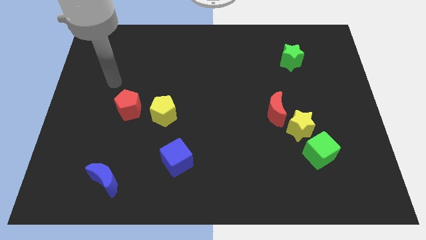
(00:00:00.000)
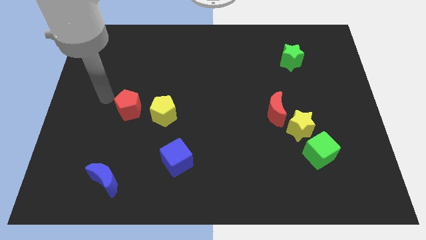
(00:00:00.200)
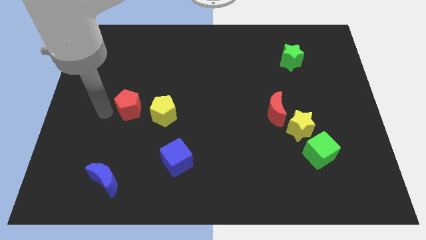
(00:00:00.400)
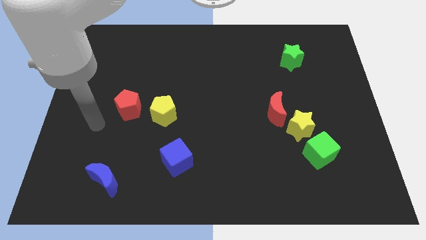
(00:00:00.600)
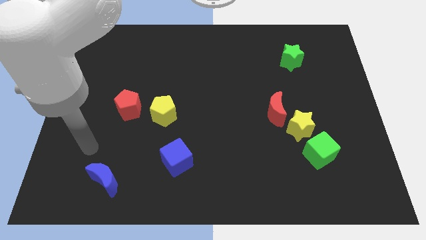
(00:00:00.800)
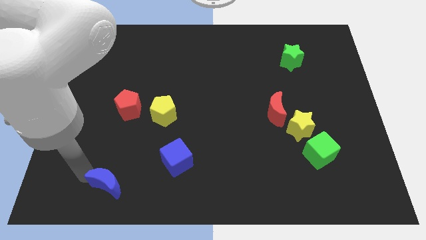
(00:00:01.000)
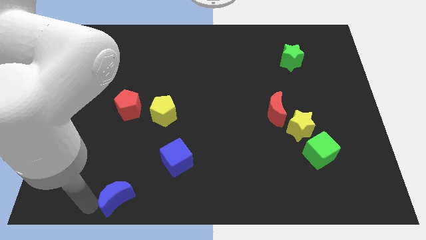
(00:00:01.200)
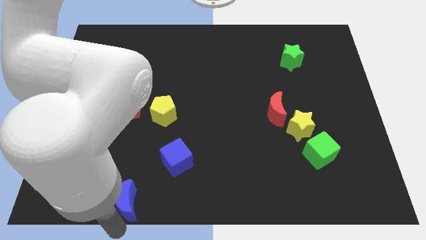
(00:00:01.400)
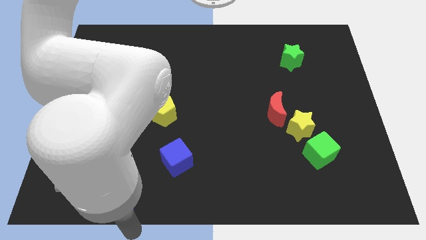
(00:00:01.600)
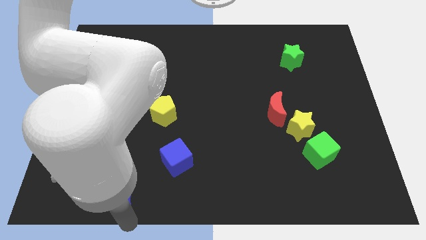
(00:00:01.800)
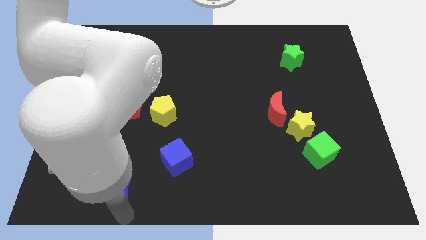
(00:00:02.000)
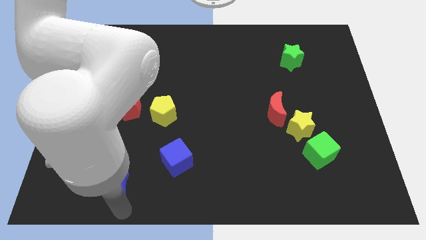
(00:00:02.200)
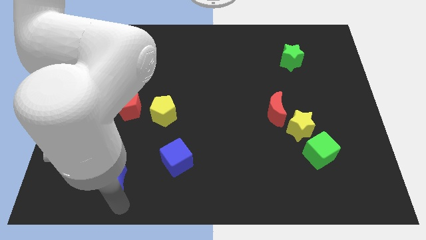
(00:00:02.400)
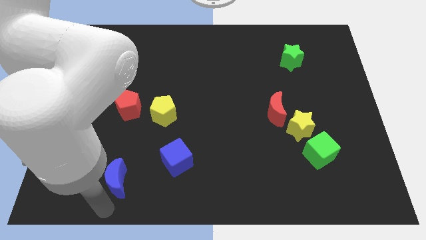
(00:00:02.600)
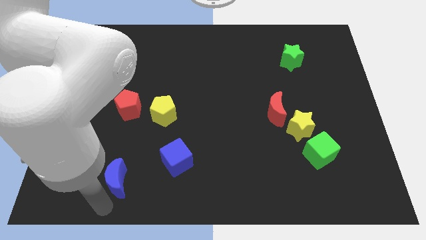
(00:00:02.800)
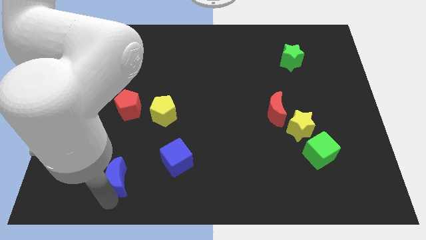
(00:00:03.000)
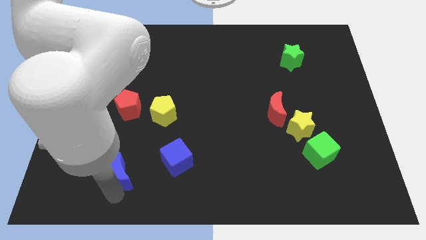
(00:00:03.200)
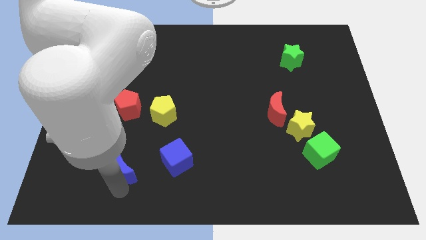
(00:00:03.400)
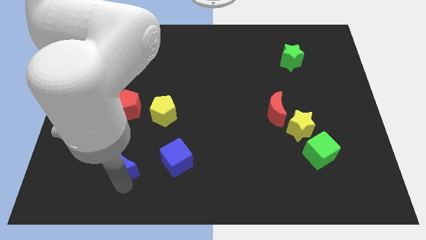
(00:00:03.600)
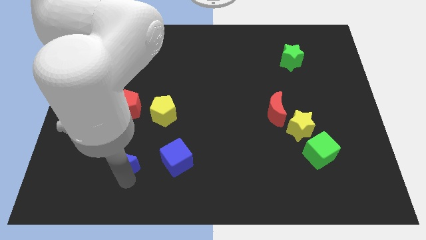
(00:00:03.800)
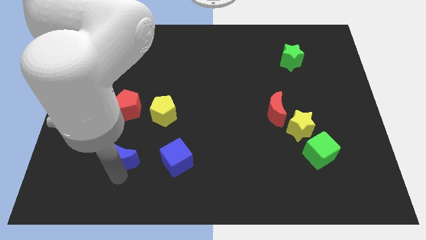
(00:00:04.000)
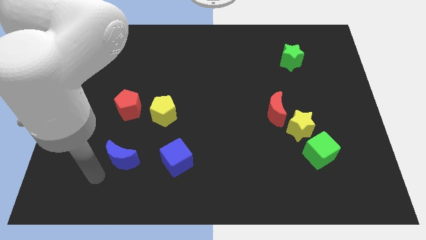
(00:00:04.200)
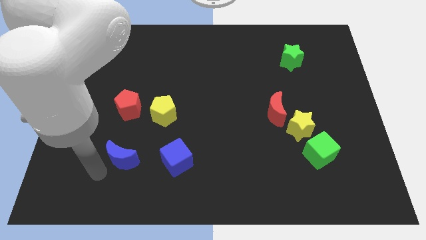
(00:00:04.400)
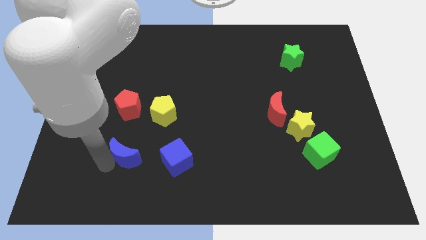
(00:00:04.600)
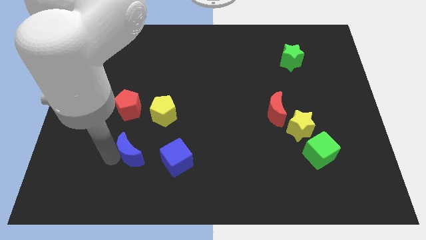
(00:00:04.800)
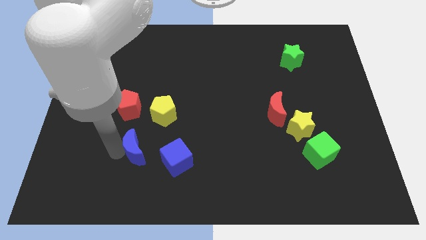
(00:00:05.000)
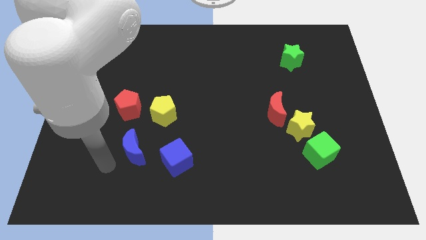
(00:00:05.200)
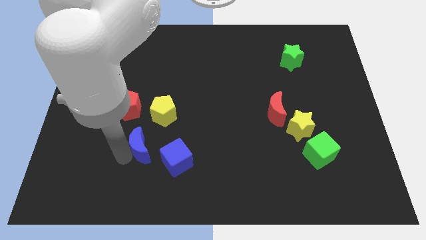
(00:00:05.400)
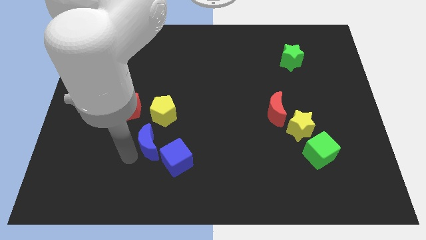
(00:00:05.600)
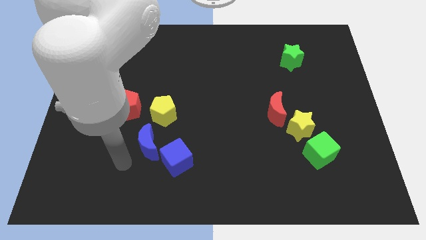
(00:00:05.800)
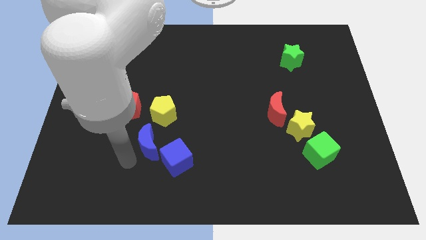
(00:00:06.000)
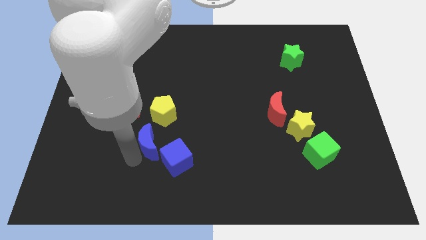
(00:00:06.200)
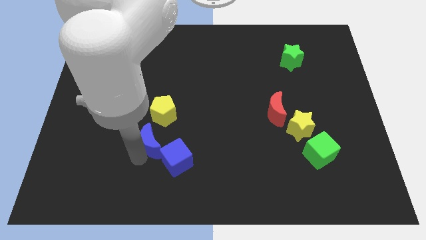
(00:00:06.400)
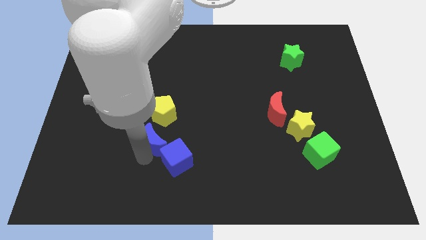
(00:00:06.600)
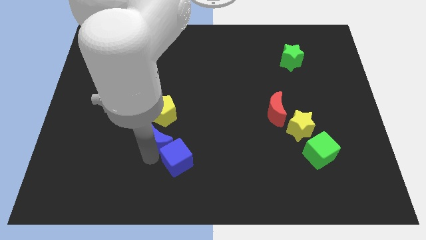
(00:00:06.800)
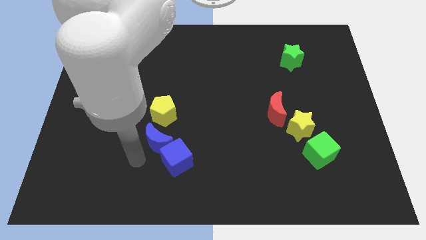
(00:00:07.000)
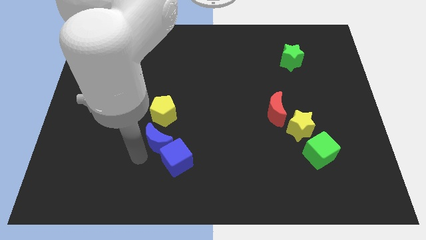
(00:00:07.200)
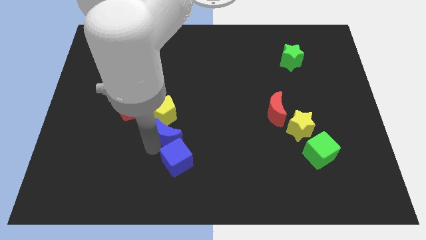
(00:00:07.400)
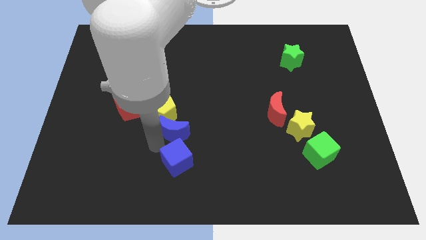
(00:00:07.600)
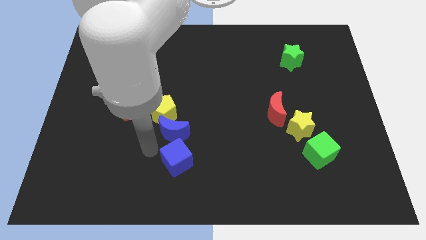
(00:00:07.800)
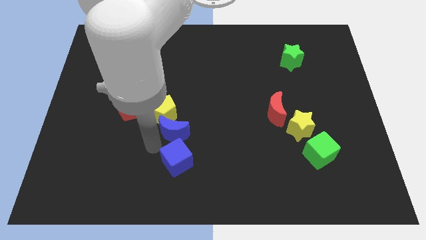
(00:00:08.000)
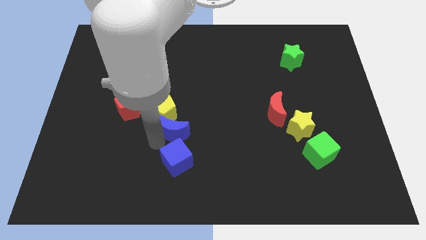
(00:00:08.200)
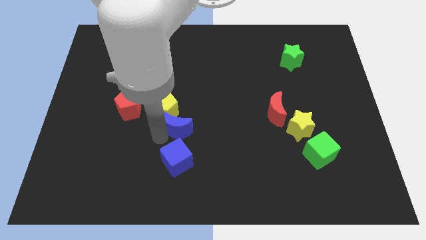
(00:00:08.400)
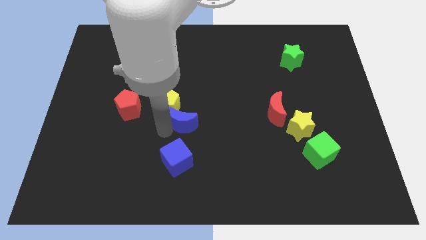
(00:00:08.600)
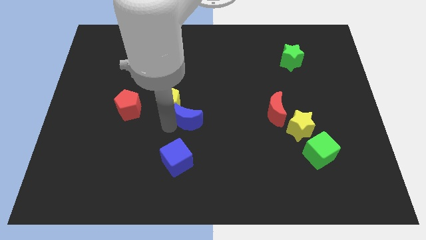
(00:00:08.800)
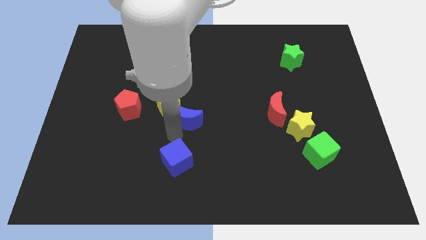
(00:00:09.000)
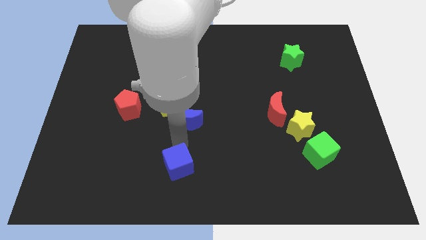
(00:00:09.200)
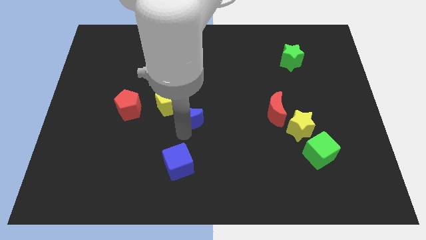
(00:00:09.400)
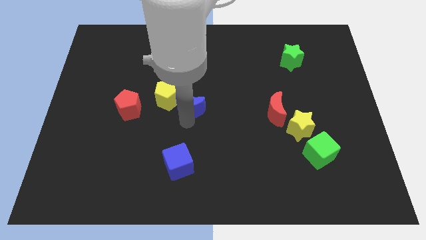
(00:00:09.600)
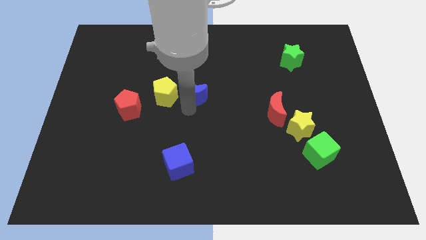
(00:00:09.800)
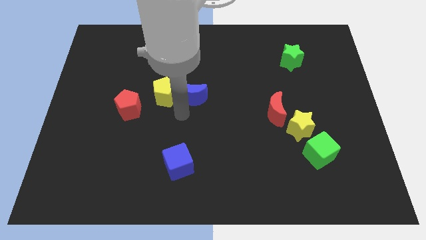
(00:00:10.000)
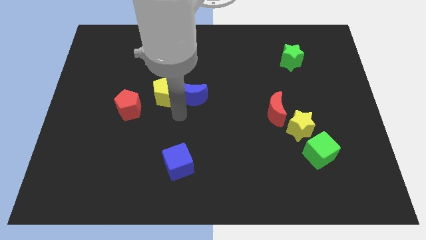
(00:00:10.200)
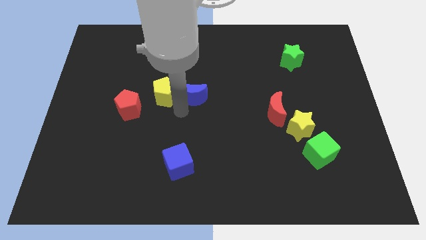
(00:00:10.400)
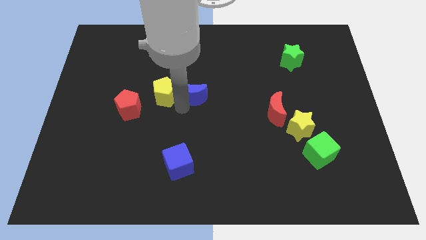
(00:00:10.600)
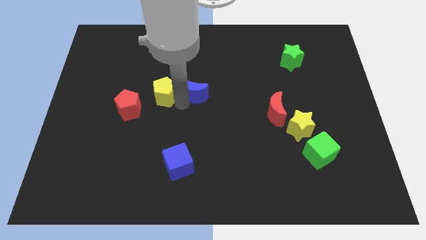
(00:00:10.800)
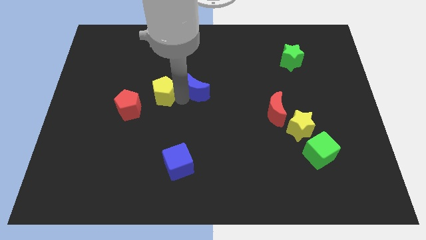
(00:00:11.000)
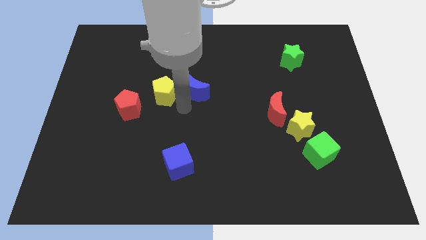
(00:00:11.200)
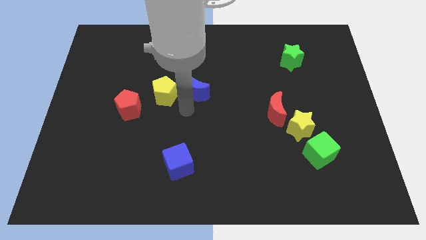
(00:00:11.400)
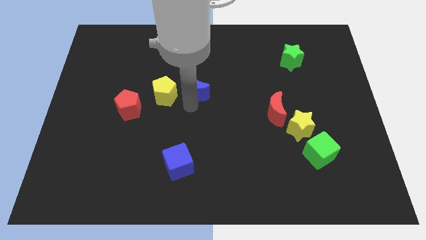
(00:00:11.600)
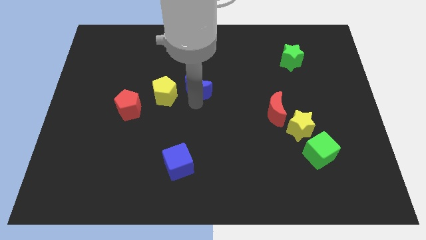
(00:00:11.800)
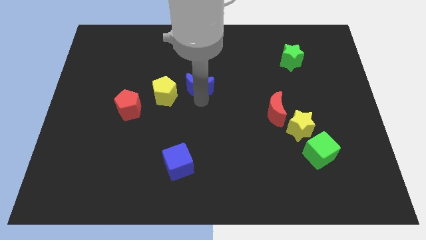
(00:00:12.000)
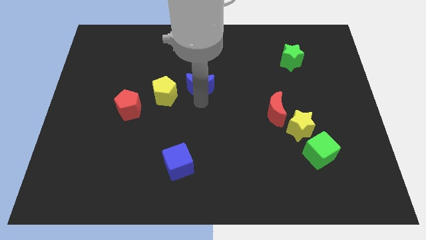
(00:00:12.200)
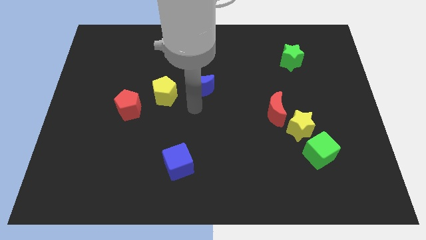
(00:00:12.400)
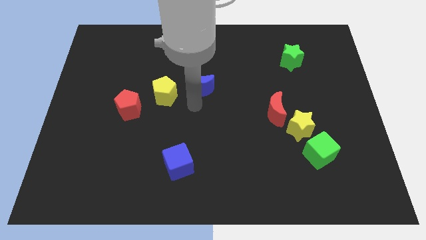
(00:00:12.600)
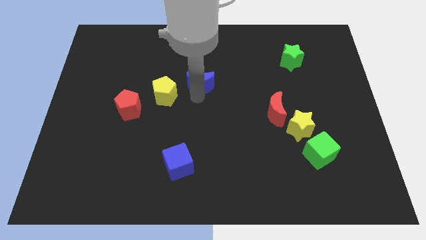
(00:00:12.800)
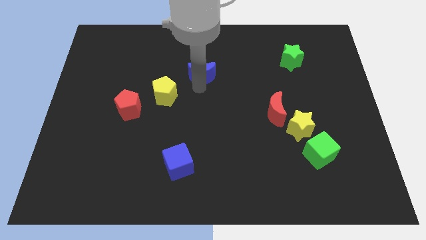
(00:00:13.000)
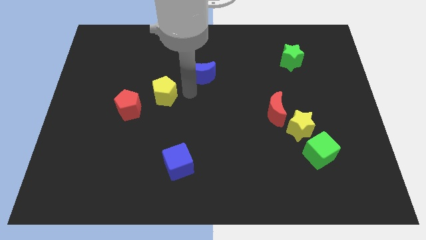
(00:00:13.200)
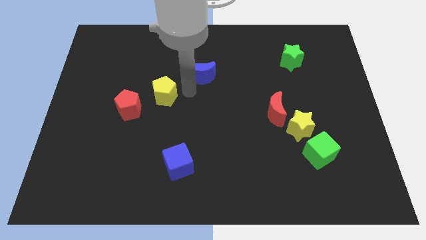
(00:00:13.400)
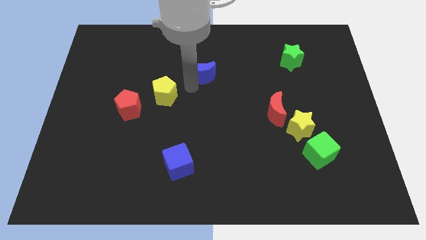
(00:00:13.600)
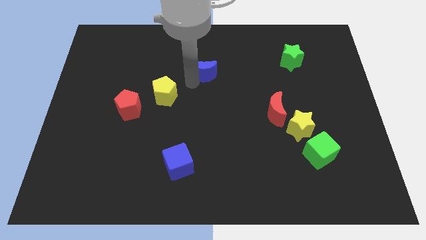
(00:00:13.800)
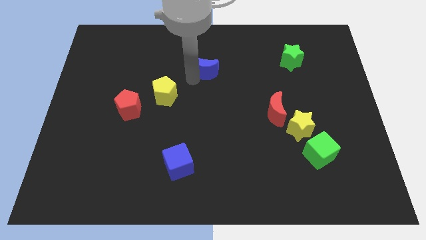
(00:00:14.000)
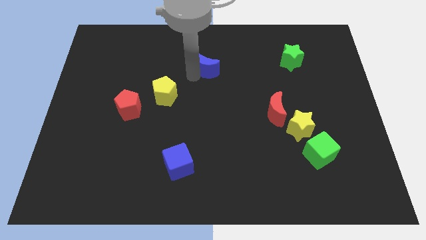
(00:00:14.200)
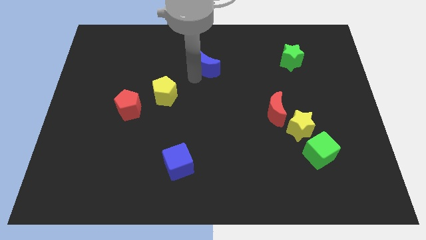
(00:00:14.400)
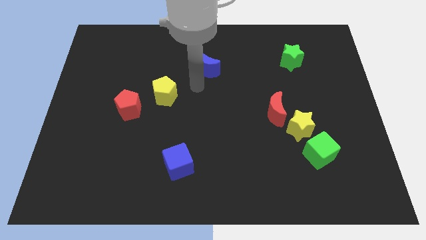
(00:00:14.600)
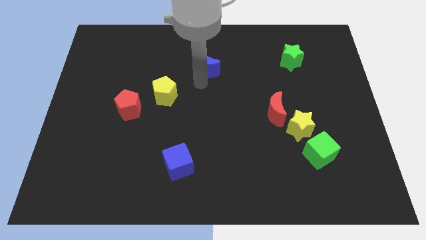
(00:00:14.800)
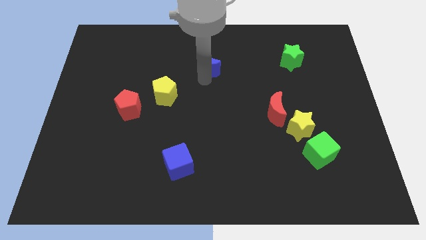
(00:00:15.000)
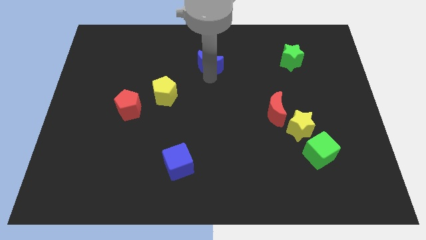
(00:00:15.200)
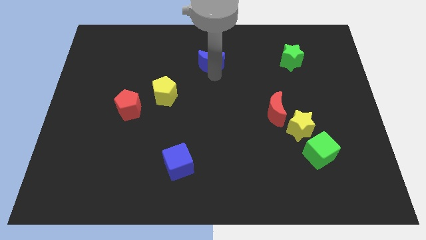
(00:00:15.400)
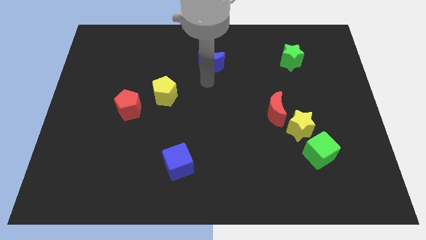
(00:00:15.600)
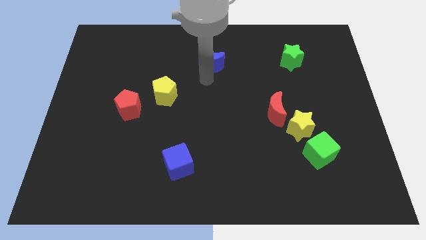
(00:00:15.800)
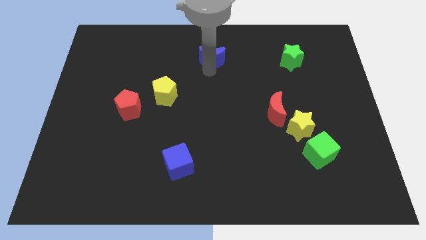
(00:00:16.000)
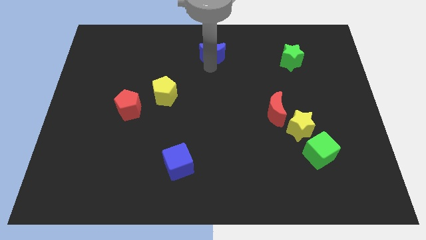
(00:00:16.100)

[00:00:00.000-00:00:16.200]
put the blue moon to the top side
